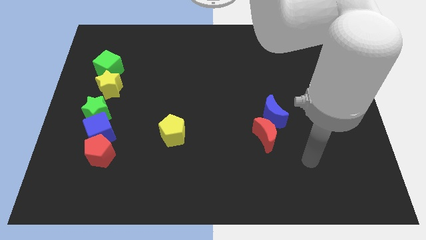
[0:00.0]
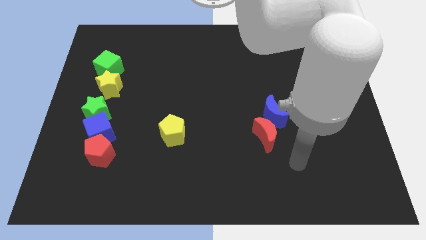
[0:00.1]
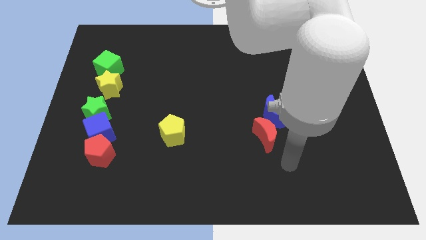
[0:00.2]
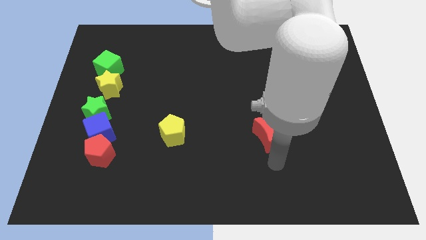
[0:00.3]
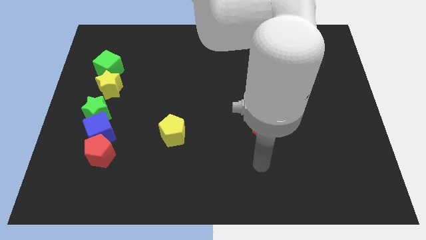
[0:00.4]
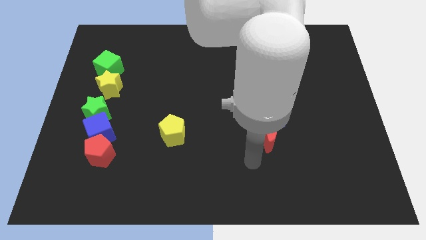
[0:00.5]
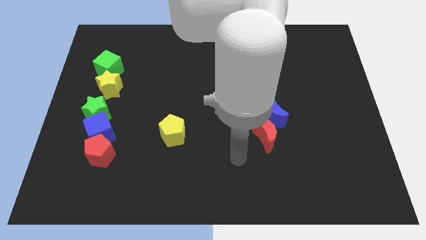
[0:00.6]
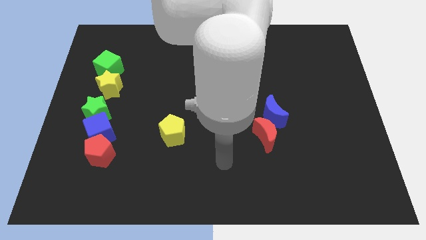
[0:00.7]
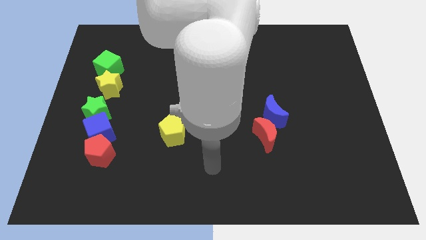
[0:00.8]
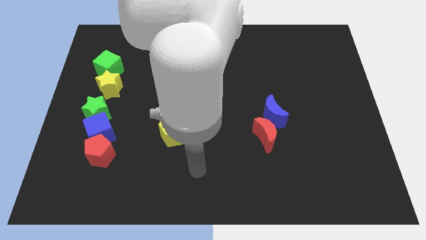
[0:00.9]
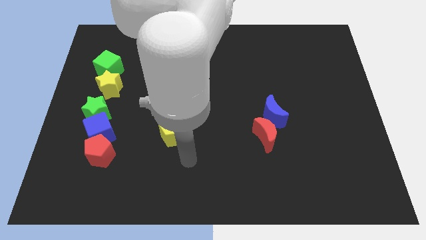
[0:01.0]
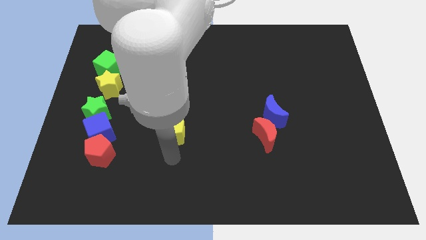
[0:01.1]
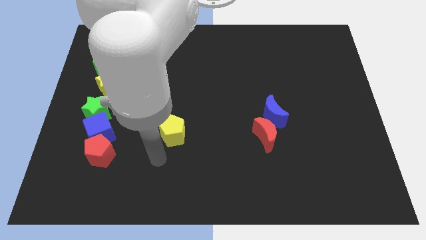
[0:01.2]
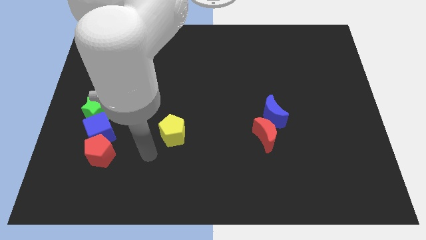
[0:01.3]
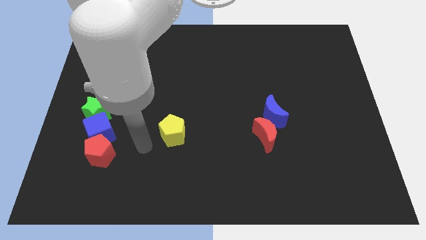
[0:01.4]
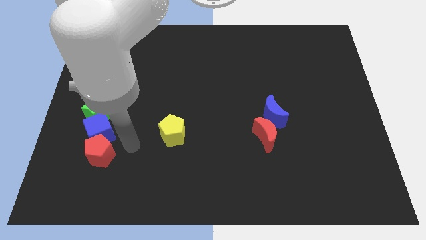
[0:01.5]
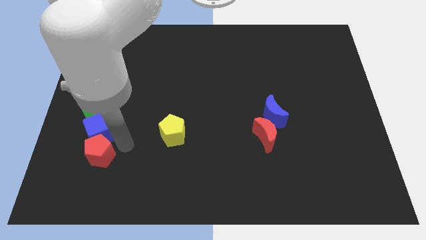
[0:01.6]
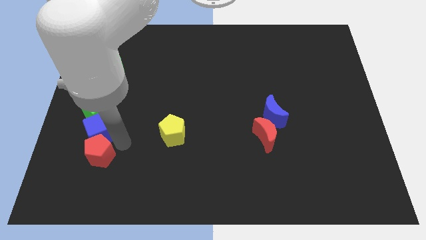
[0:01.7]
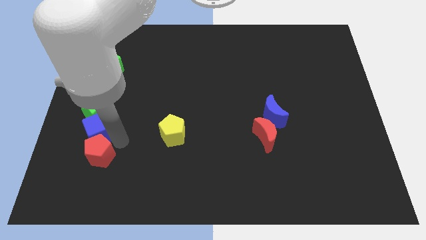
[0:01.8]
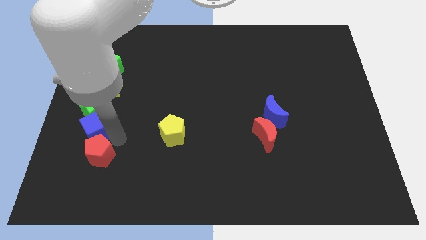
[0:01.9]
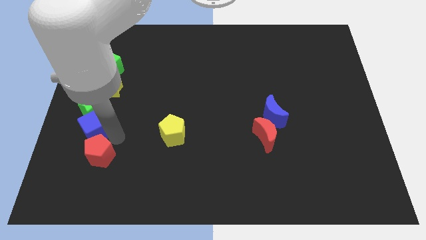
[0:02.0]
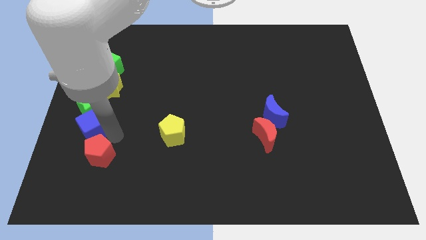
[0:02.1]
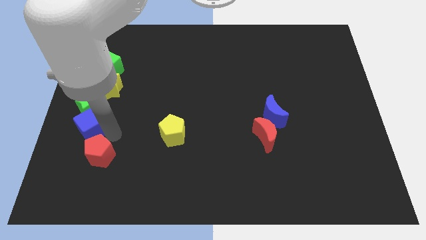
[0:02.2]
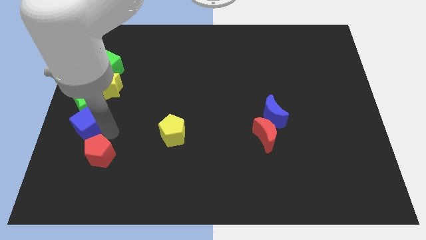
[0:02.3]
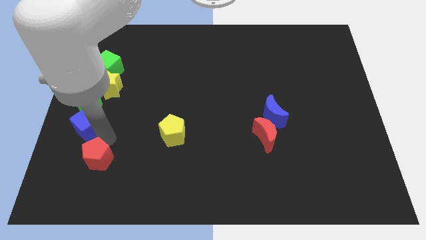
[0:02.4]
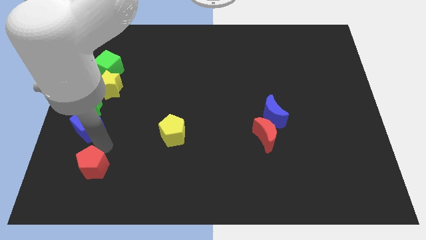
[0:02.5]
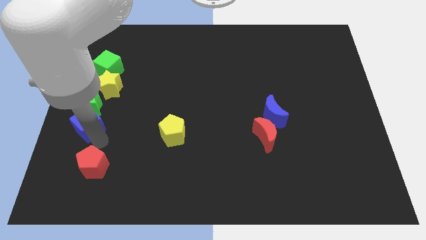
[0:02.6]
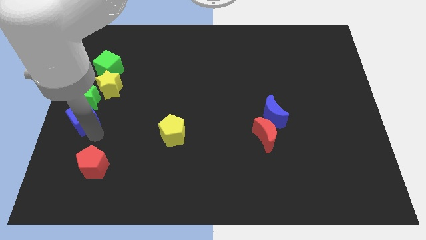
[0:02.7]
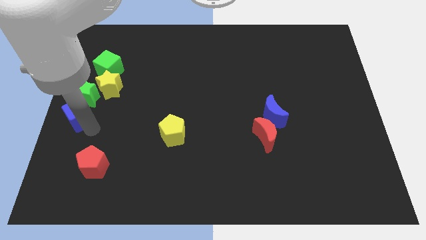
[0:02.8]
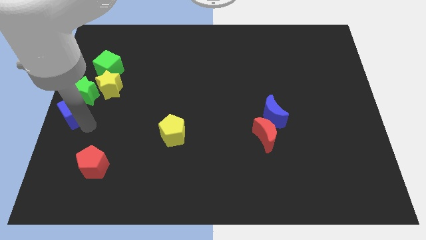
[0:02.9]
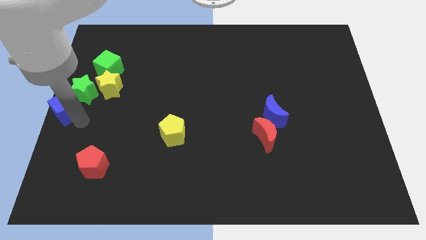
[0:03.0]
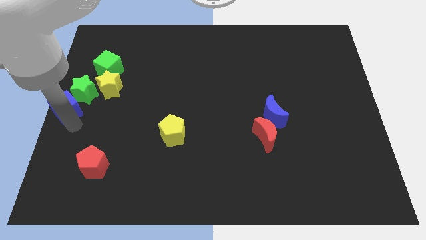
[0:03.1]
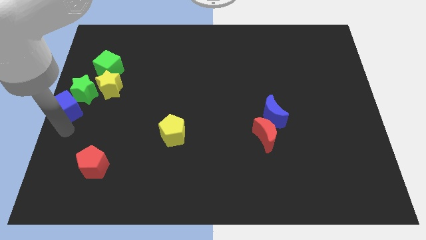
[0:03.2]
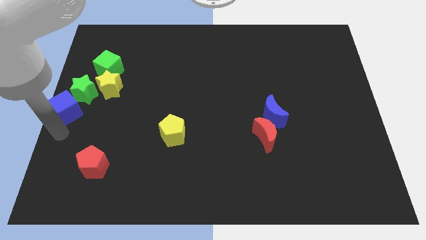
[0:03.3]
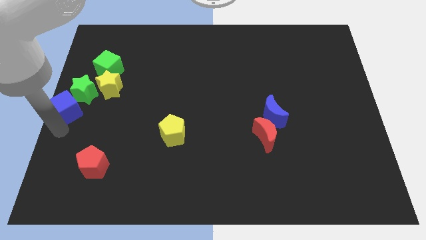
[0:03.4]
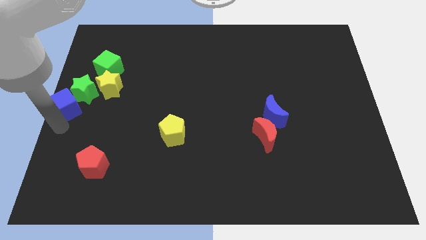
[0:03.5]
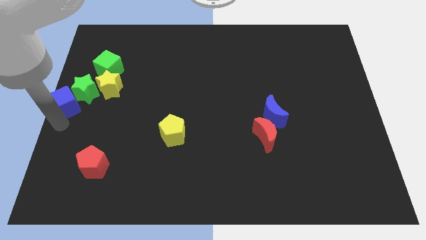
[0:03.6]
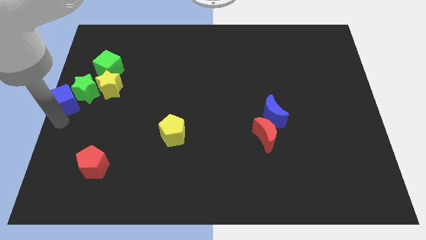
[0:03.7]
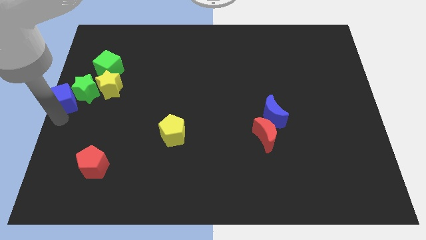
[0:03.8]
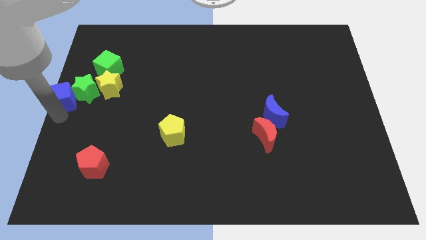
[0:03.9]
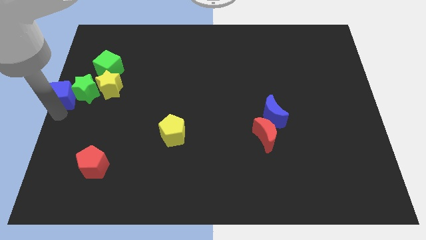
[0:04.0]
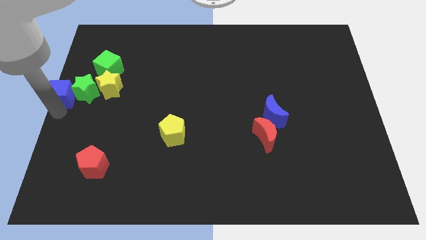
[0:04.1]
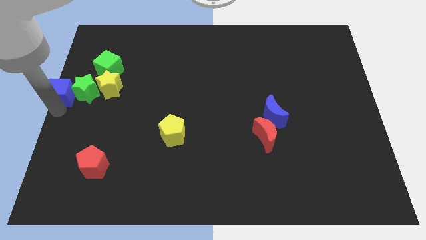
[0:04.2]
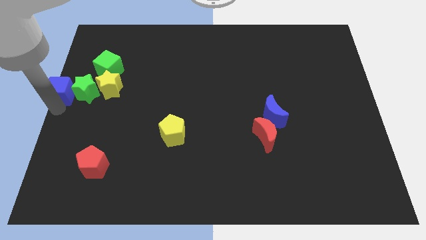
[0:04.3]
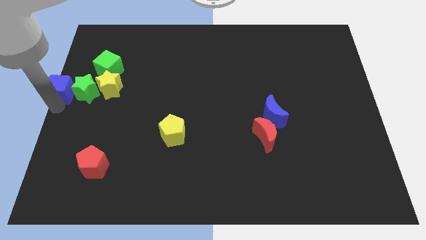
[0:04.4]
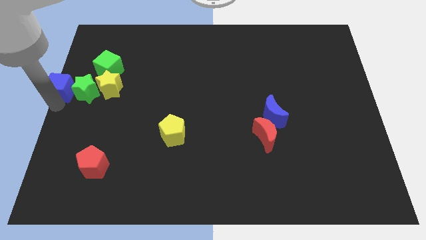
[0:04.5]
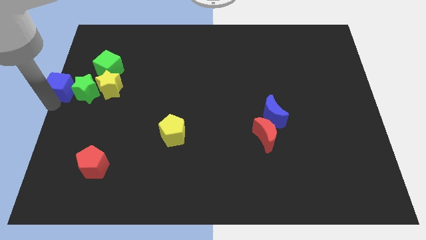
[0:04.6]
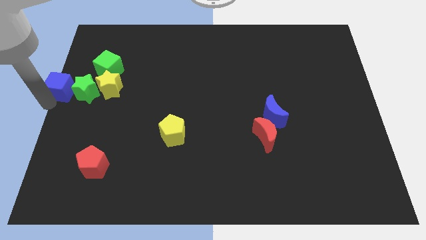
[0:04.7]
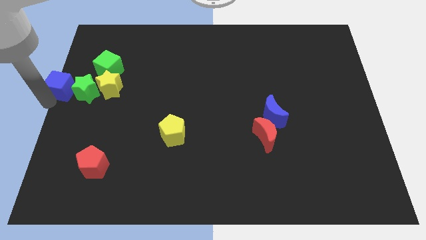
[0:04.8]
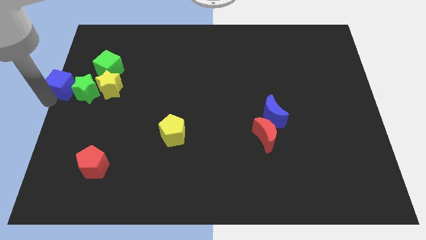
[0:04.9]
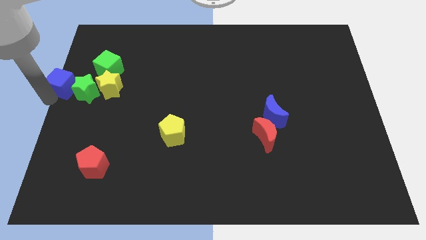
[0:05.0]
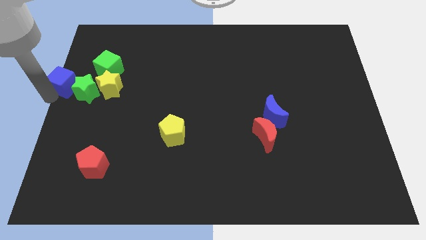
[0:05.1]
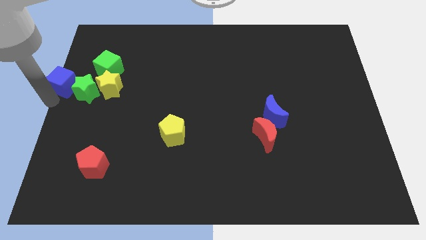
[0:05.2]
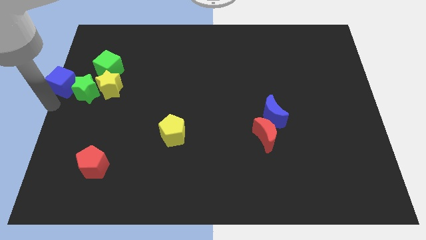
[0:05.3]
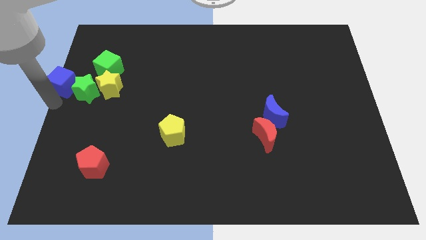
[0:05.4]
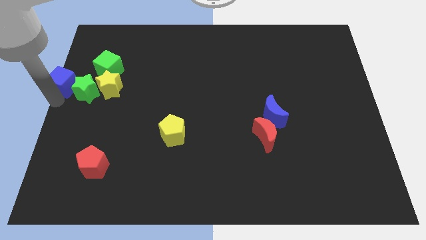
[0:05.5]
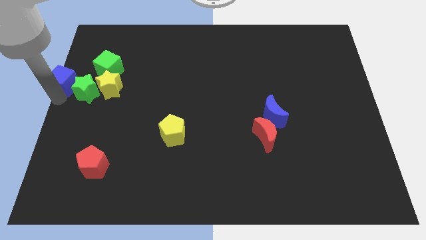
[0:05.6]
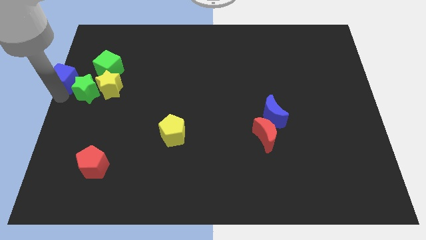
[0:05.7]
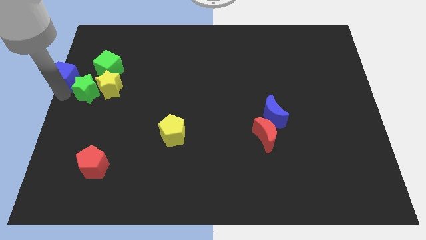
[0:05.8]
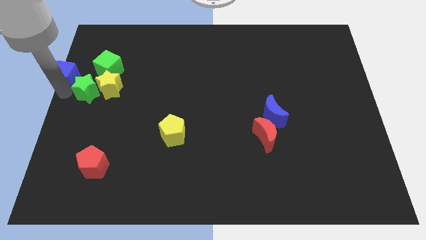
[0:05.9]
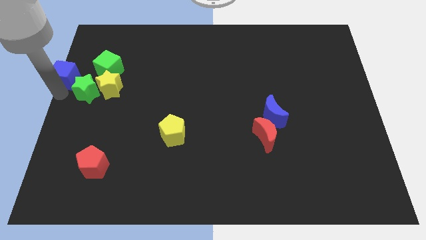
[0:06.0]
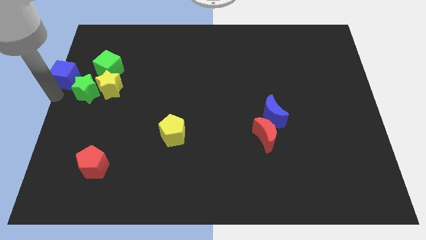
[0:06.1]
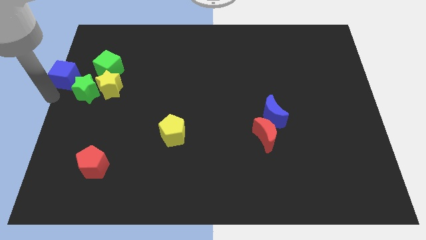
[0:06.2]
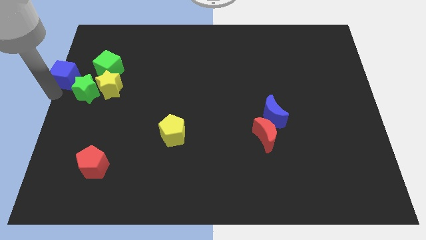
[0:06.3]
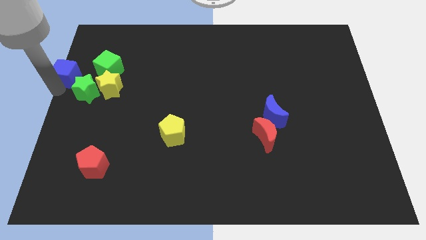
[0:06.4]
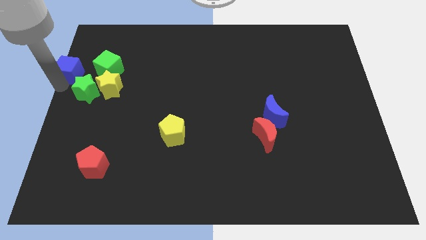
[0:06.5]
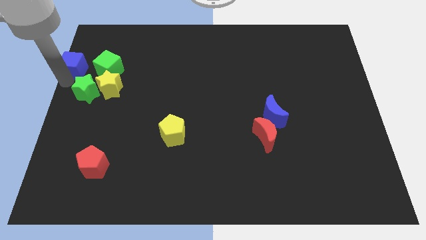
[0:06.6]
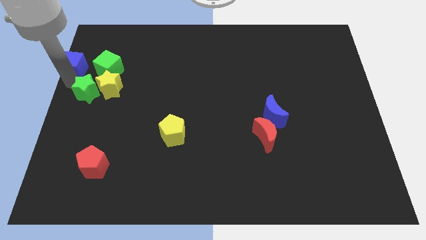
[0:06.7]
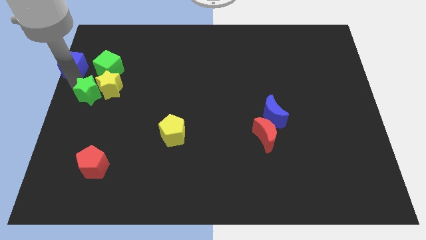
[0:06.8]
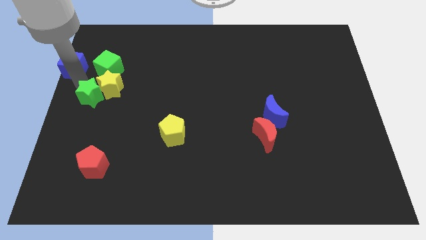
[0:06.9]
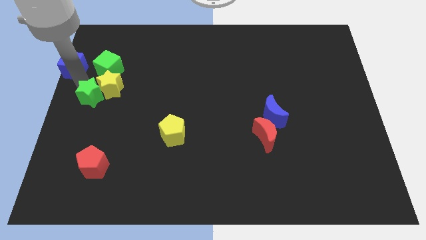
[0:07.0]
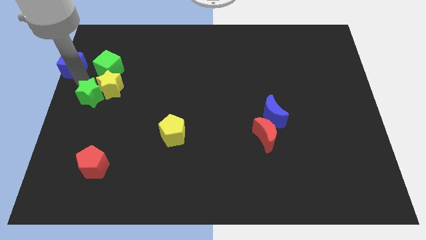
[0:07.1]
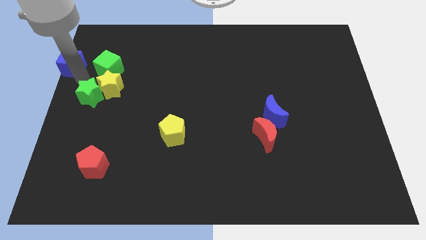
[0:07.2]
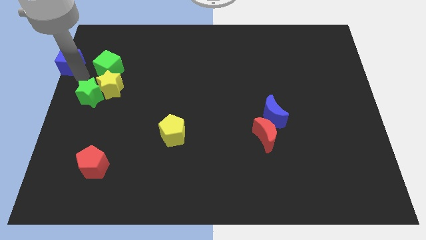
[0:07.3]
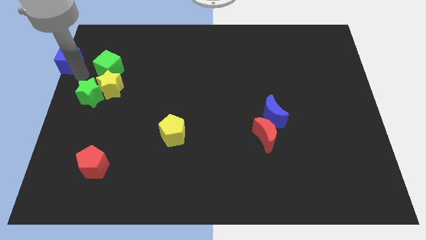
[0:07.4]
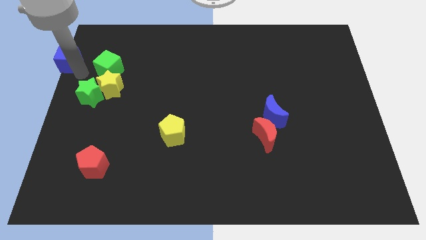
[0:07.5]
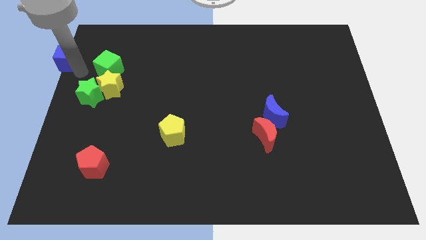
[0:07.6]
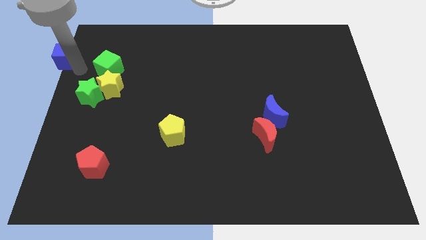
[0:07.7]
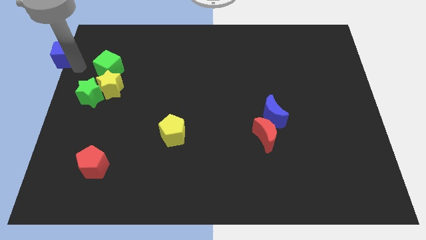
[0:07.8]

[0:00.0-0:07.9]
push the blue cube to the top left of the board
